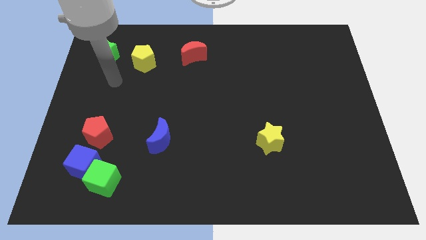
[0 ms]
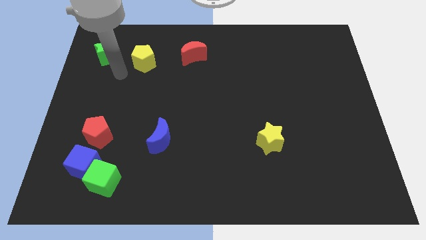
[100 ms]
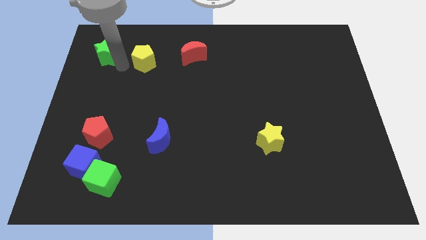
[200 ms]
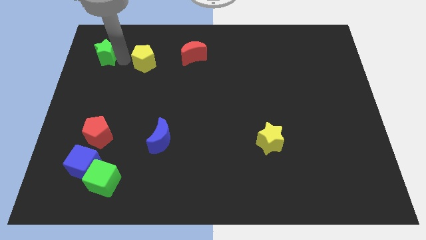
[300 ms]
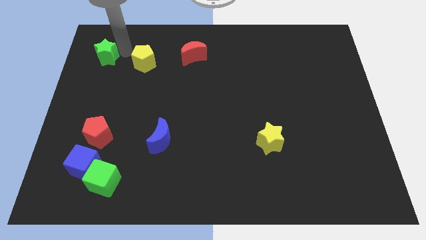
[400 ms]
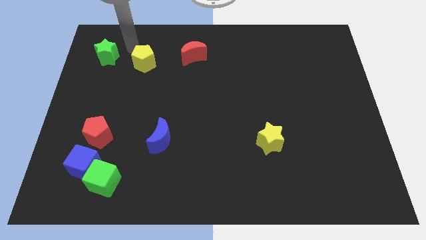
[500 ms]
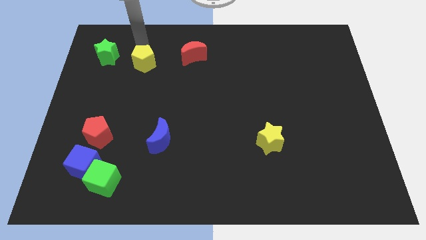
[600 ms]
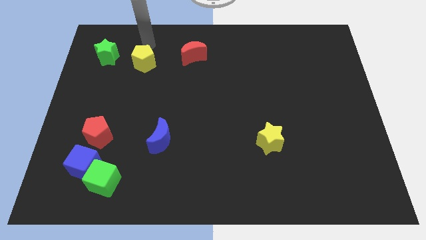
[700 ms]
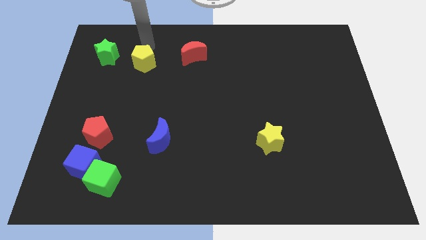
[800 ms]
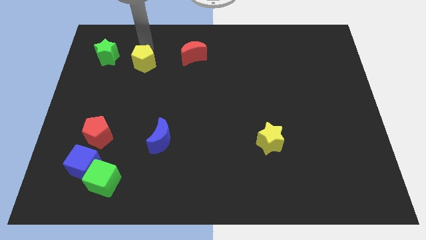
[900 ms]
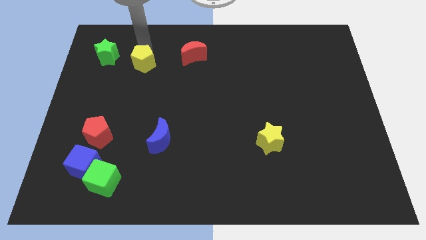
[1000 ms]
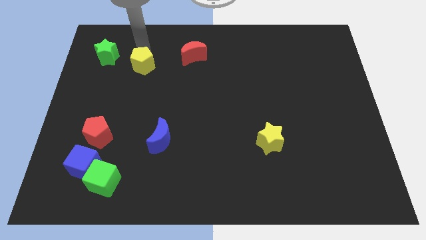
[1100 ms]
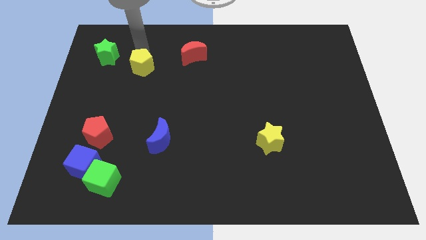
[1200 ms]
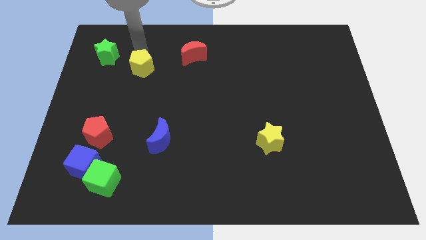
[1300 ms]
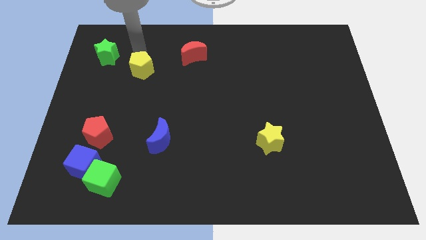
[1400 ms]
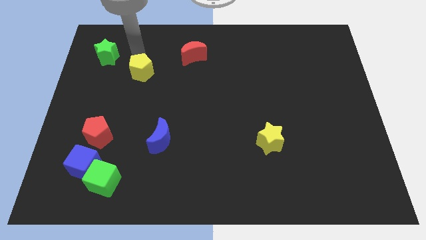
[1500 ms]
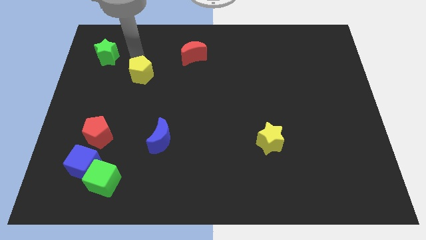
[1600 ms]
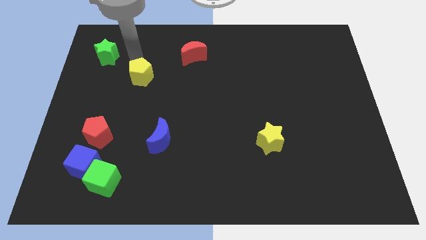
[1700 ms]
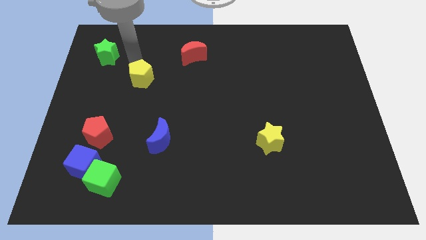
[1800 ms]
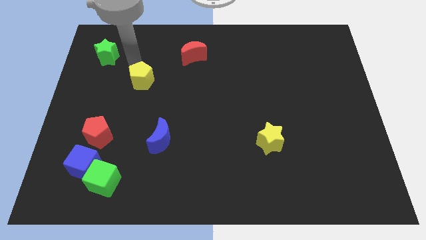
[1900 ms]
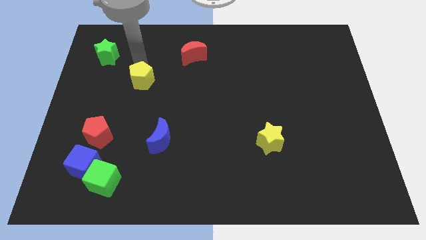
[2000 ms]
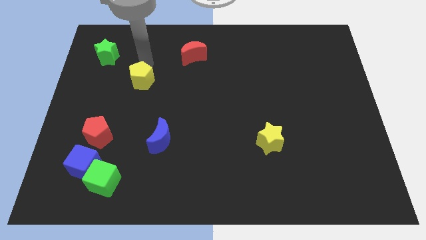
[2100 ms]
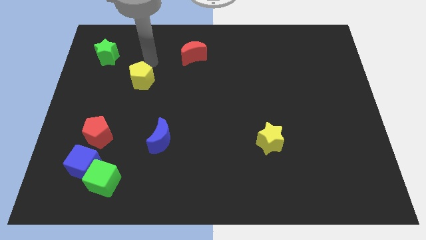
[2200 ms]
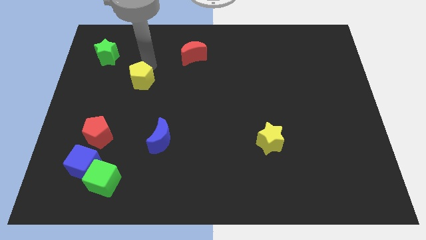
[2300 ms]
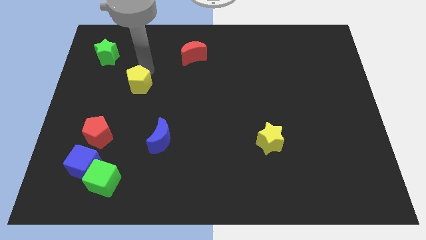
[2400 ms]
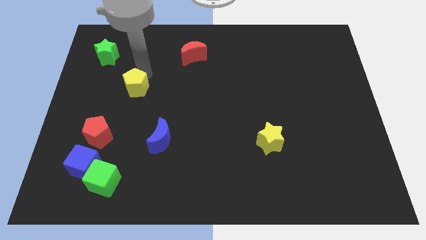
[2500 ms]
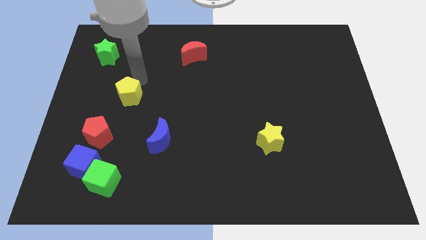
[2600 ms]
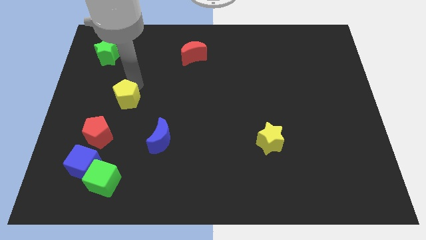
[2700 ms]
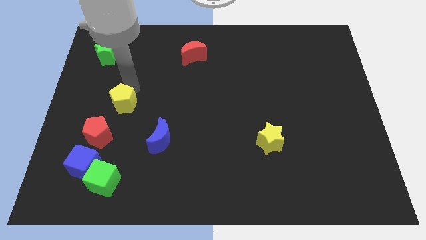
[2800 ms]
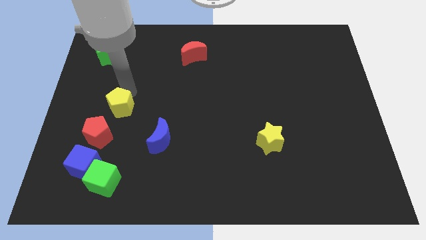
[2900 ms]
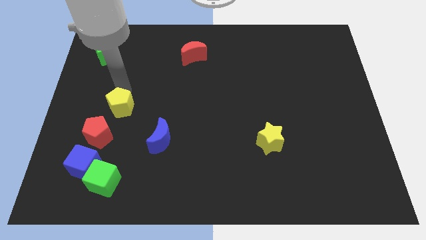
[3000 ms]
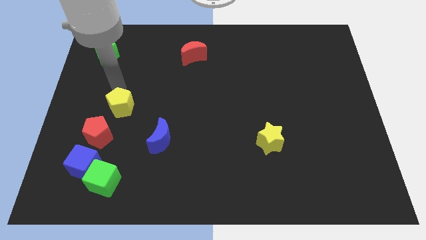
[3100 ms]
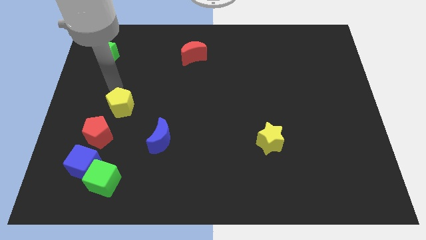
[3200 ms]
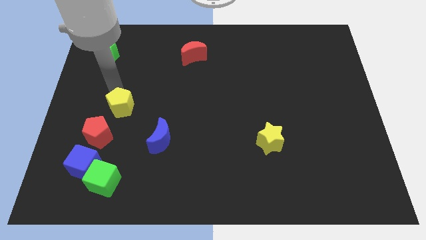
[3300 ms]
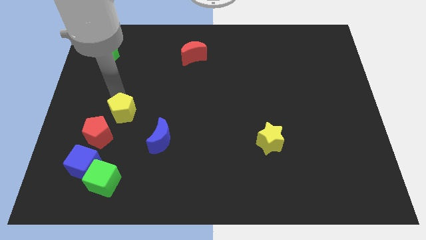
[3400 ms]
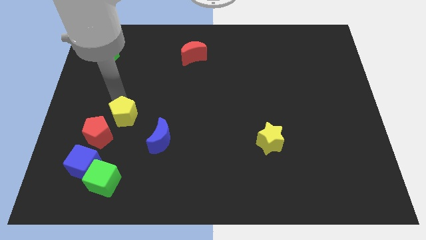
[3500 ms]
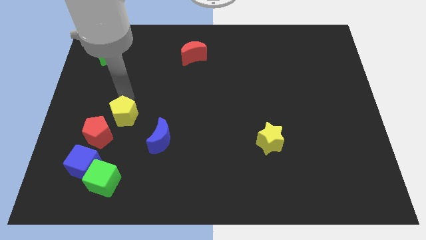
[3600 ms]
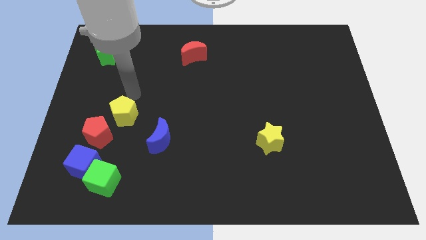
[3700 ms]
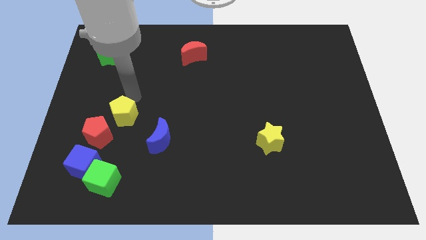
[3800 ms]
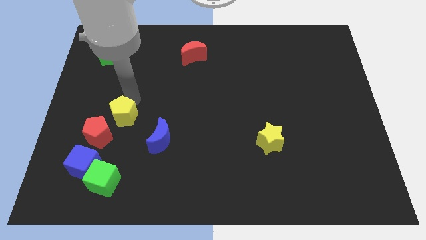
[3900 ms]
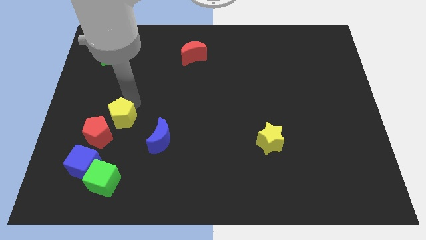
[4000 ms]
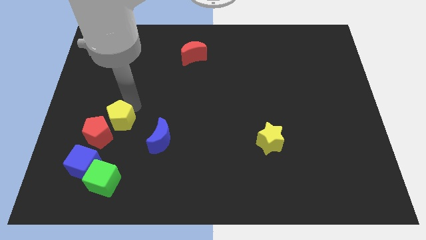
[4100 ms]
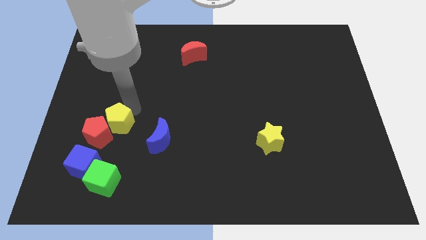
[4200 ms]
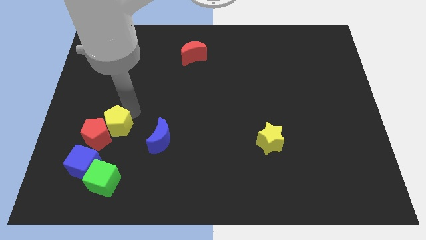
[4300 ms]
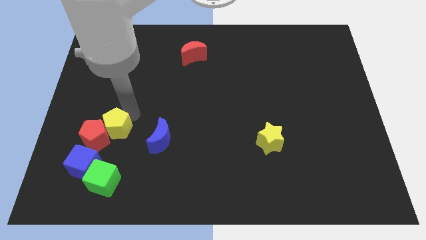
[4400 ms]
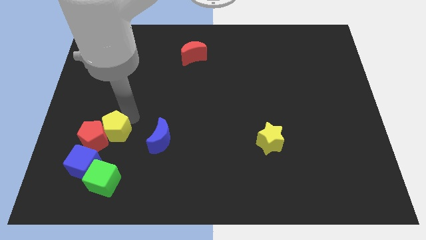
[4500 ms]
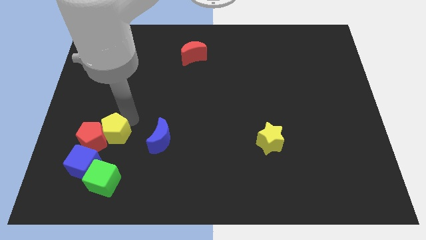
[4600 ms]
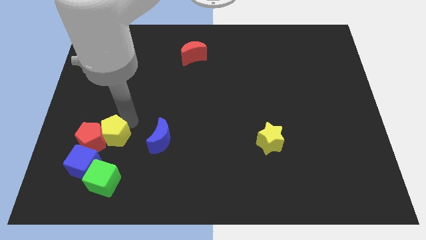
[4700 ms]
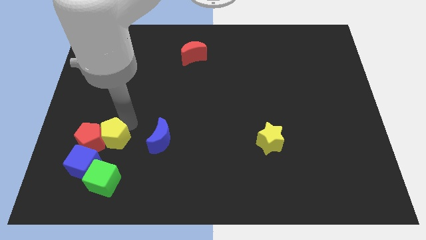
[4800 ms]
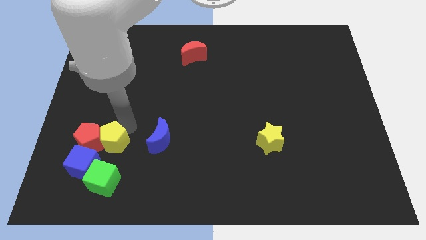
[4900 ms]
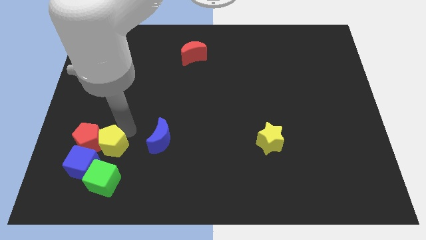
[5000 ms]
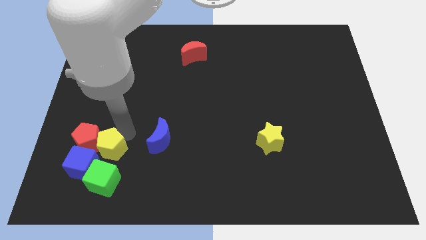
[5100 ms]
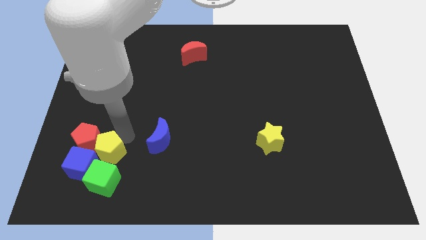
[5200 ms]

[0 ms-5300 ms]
slide the yellow pentagon towards the blue cube

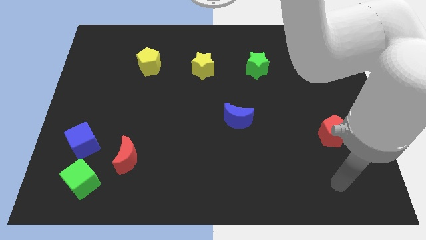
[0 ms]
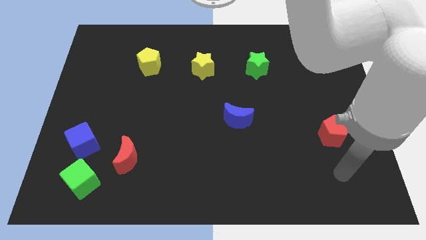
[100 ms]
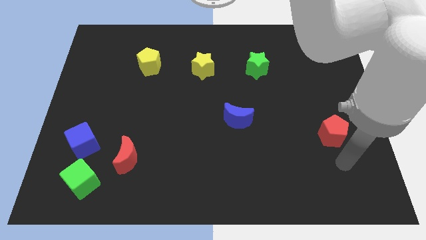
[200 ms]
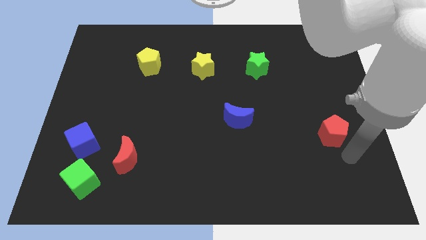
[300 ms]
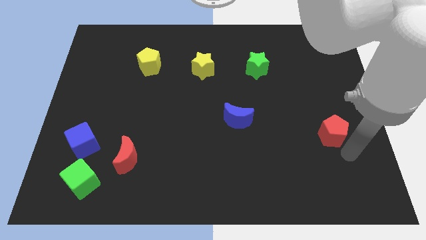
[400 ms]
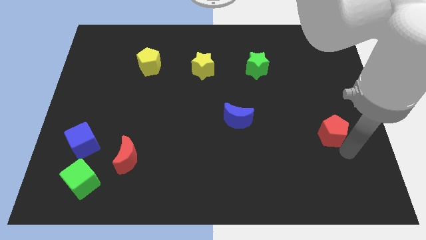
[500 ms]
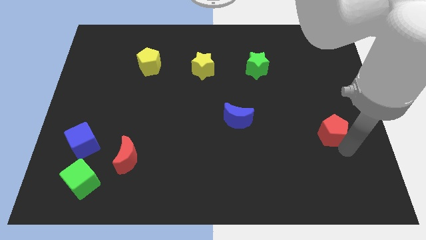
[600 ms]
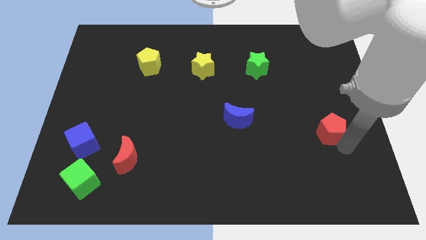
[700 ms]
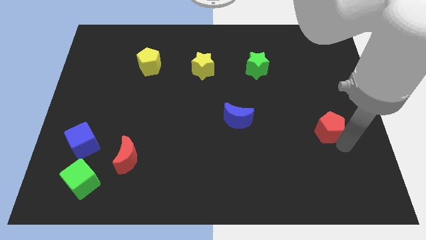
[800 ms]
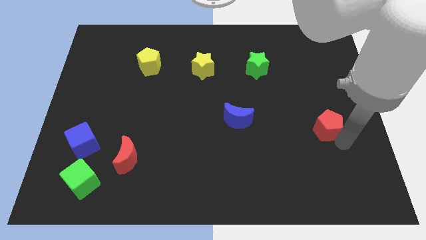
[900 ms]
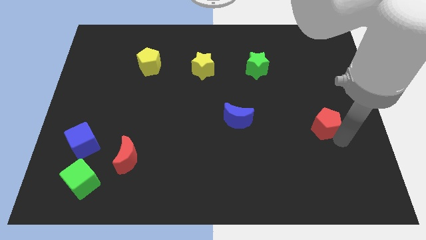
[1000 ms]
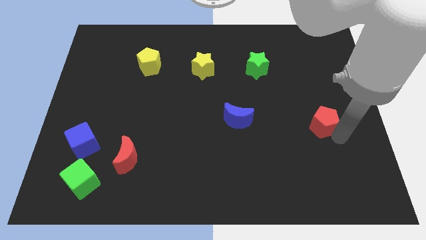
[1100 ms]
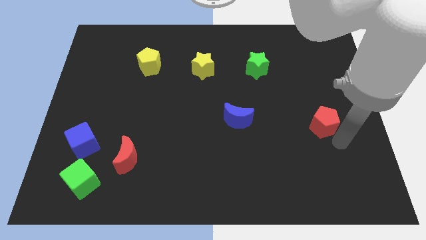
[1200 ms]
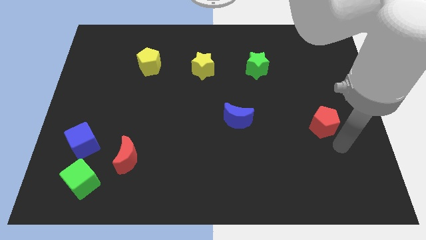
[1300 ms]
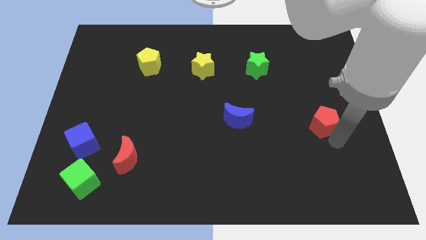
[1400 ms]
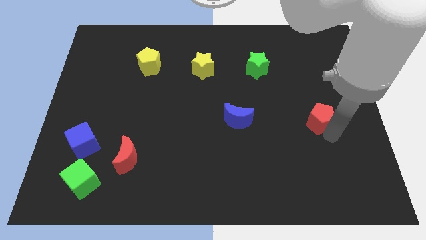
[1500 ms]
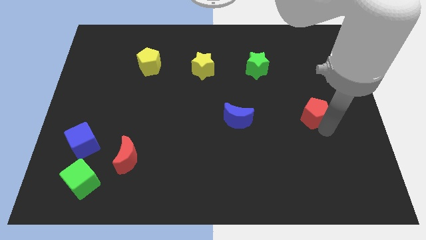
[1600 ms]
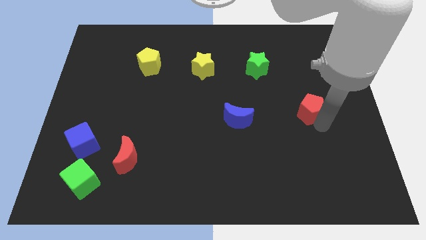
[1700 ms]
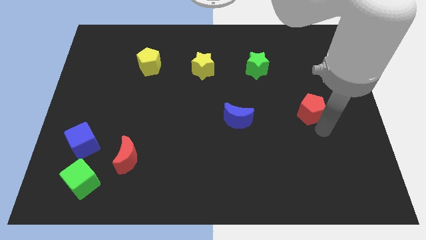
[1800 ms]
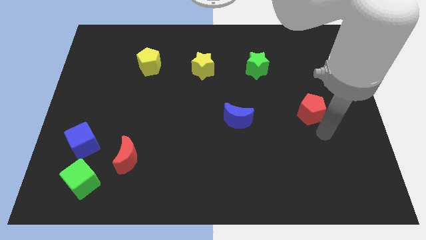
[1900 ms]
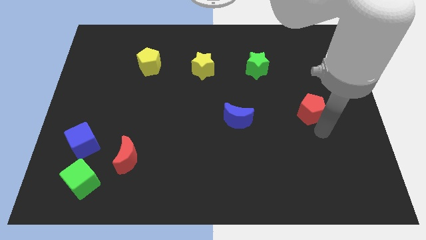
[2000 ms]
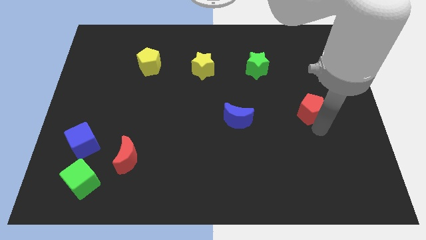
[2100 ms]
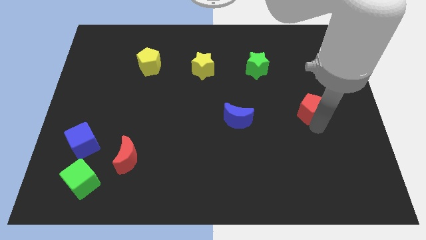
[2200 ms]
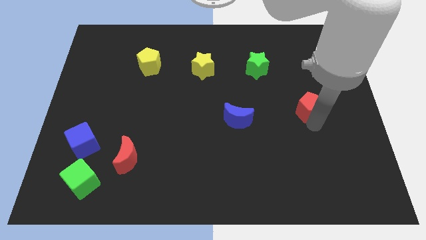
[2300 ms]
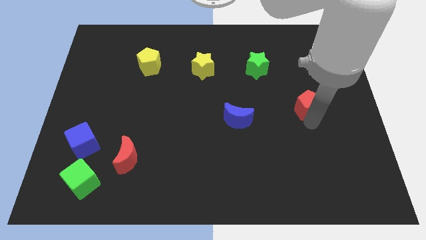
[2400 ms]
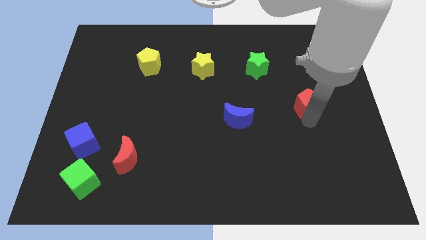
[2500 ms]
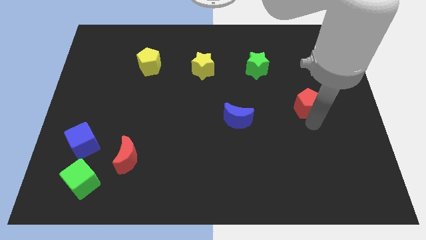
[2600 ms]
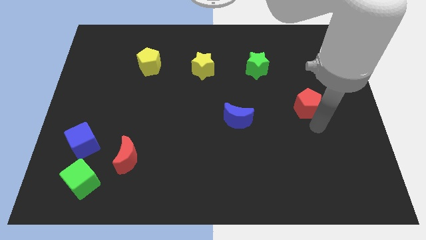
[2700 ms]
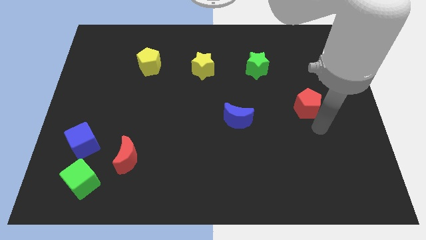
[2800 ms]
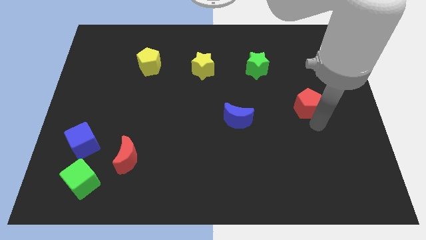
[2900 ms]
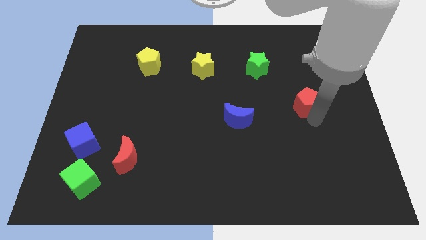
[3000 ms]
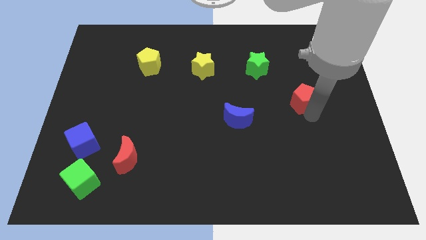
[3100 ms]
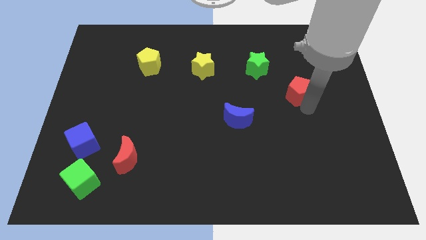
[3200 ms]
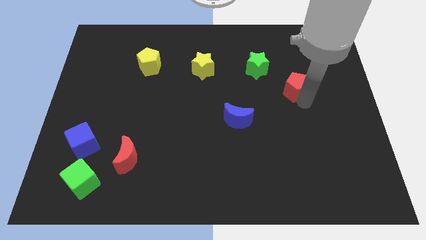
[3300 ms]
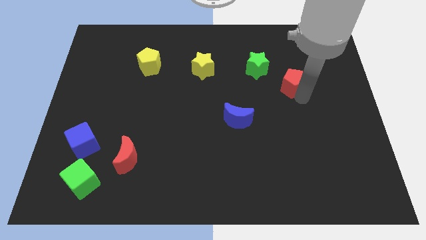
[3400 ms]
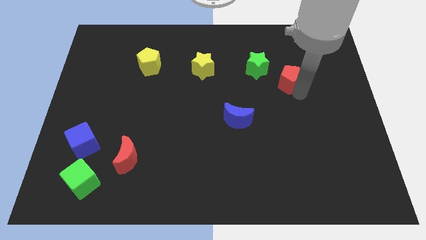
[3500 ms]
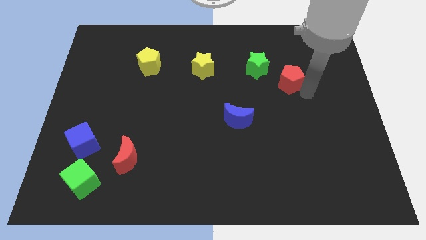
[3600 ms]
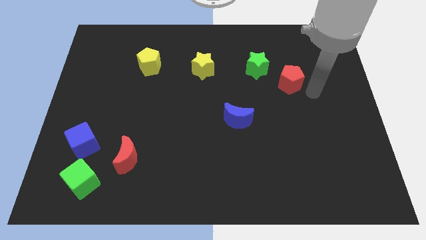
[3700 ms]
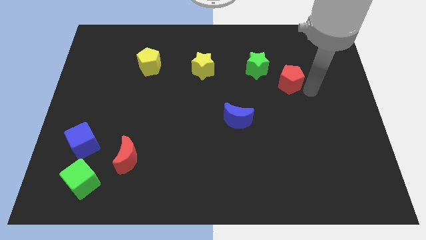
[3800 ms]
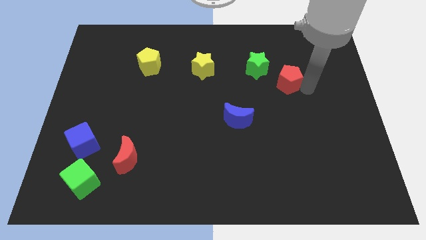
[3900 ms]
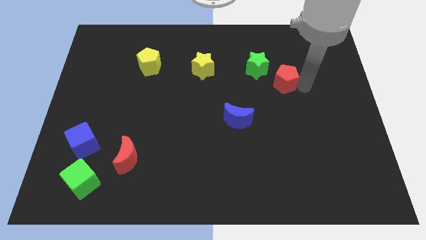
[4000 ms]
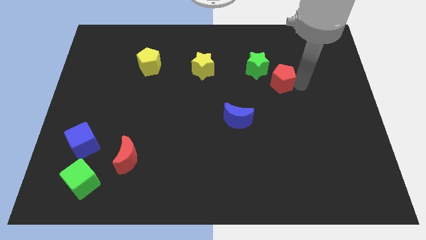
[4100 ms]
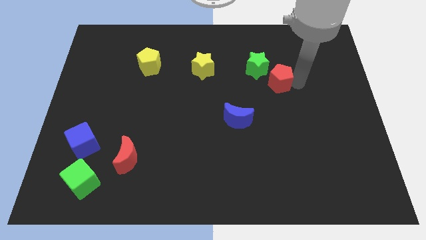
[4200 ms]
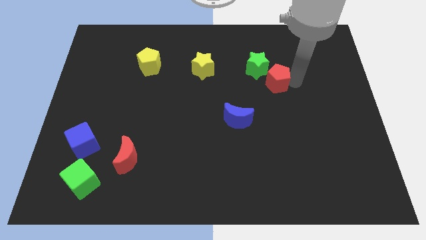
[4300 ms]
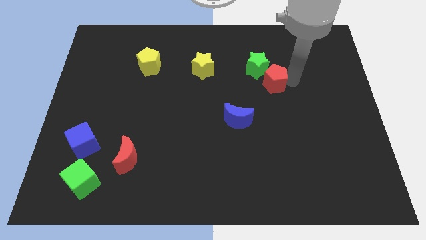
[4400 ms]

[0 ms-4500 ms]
push the red pentagon close to the green star
